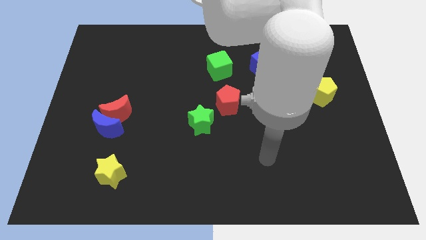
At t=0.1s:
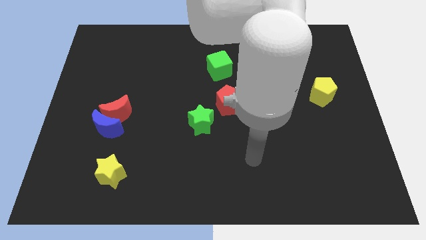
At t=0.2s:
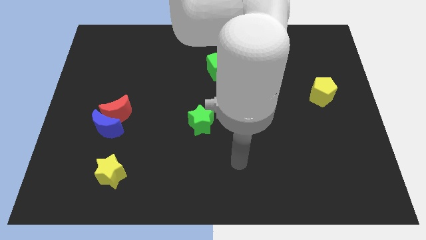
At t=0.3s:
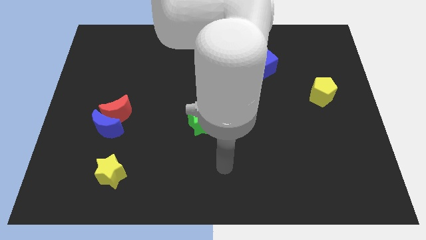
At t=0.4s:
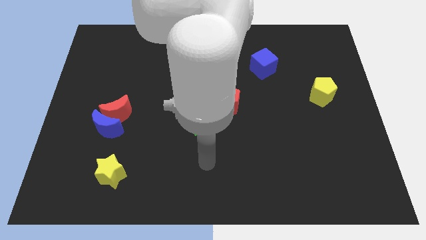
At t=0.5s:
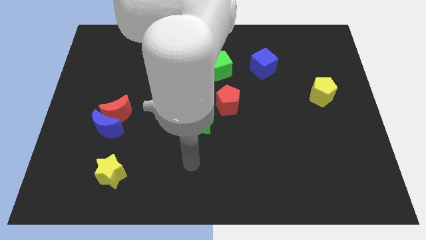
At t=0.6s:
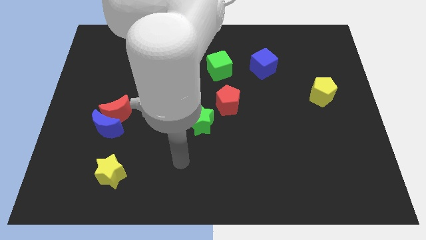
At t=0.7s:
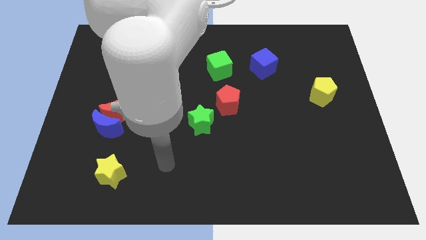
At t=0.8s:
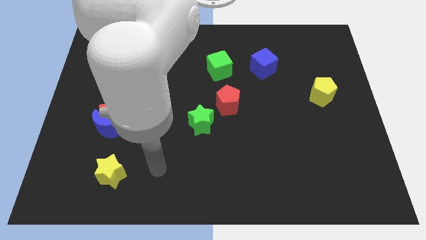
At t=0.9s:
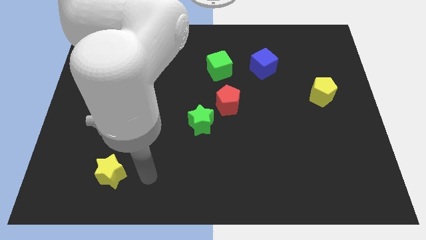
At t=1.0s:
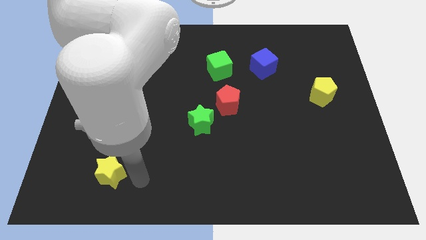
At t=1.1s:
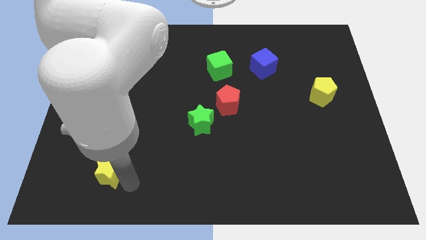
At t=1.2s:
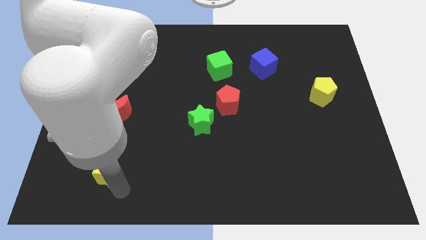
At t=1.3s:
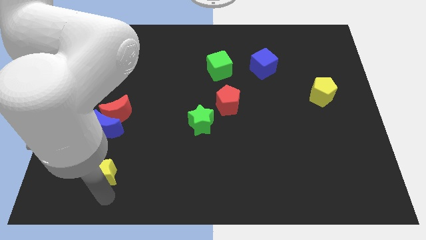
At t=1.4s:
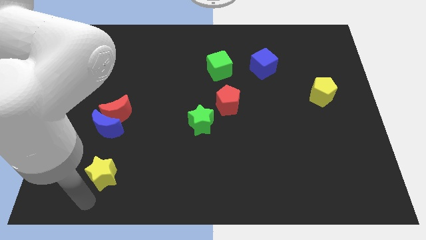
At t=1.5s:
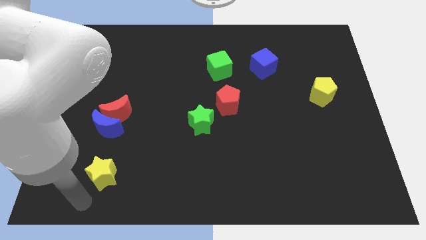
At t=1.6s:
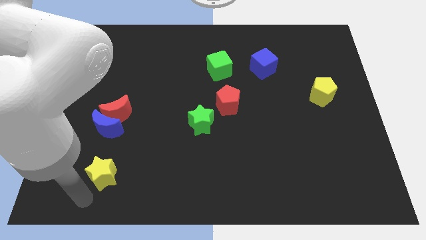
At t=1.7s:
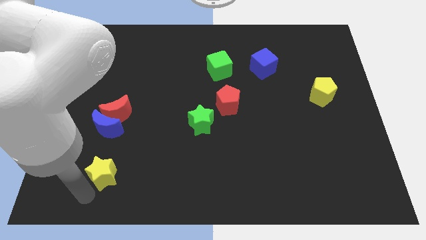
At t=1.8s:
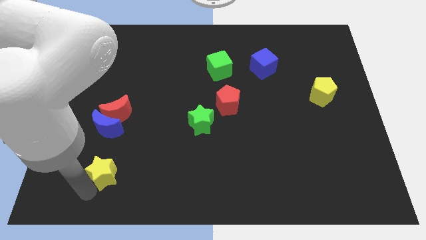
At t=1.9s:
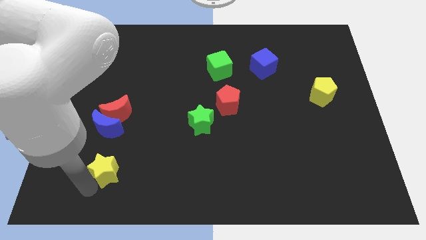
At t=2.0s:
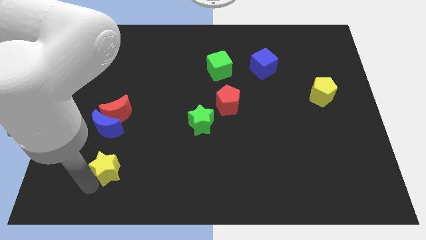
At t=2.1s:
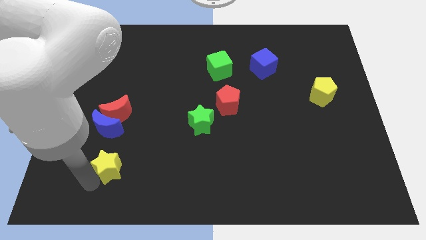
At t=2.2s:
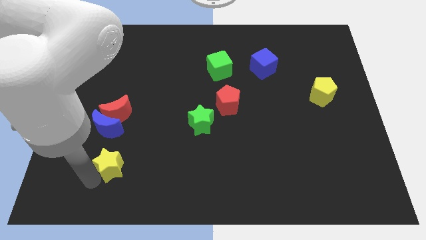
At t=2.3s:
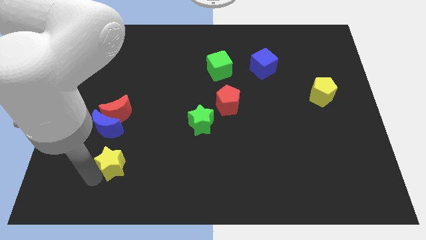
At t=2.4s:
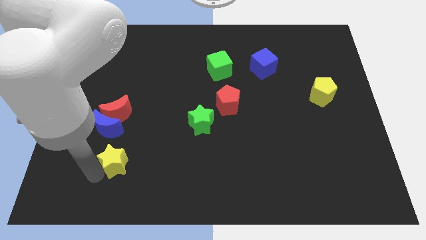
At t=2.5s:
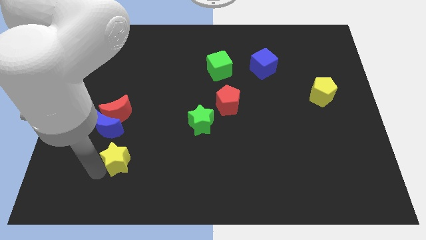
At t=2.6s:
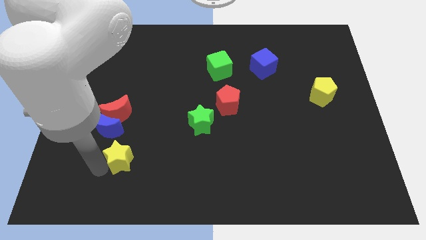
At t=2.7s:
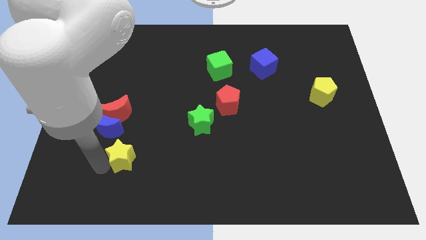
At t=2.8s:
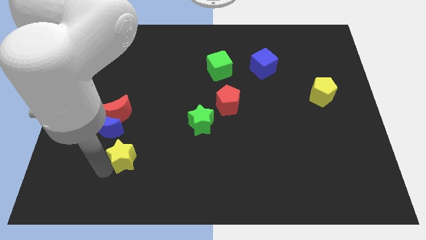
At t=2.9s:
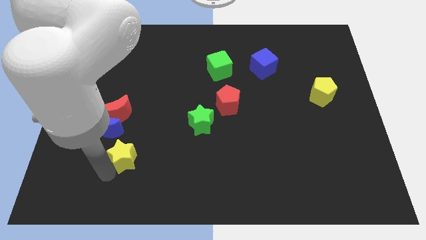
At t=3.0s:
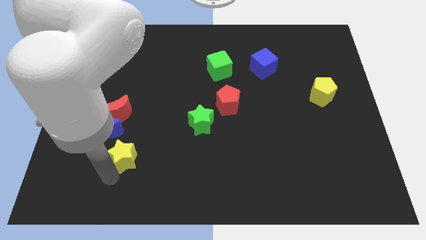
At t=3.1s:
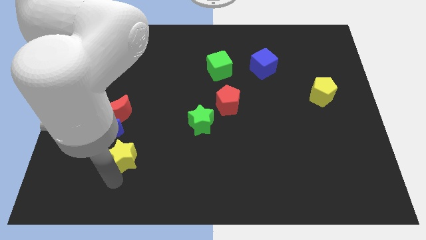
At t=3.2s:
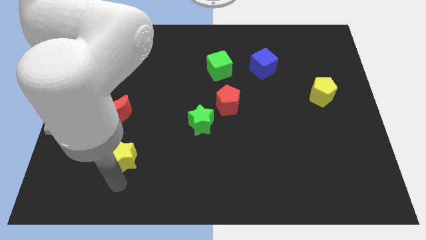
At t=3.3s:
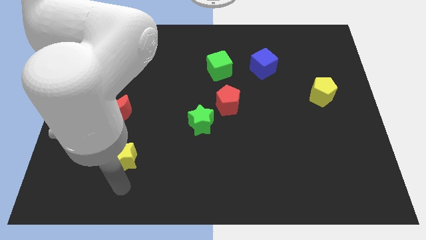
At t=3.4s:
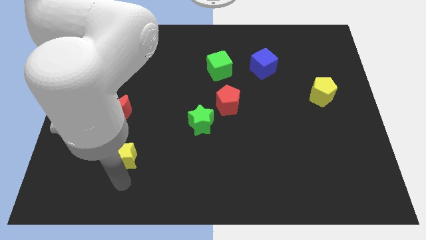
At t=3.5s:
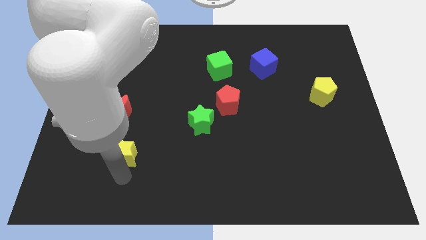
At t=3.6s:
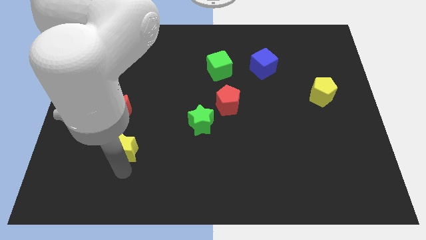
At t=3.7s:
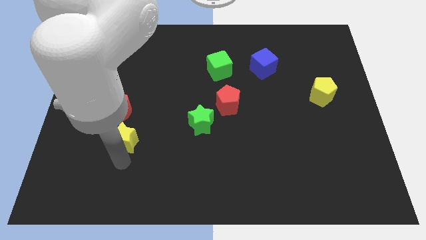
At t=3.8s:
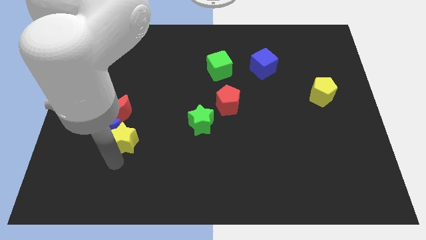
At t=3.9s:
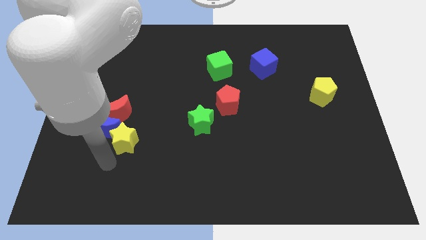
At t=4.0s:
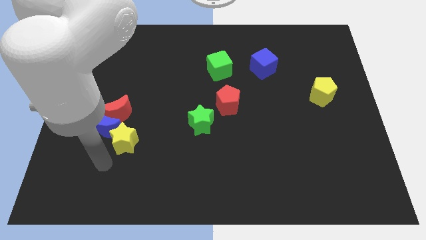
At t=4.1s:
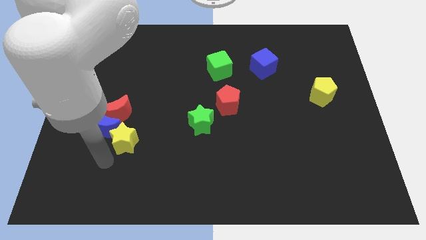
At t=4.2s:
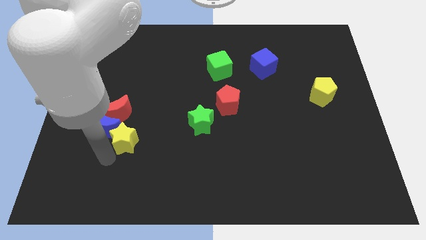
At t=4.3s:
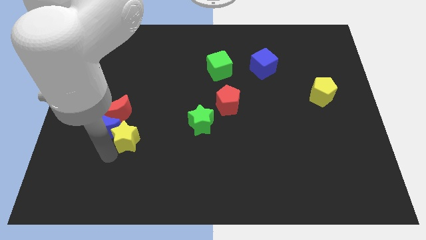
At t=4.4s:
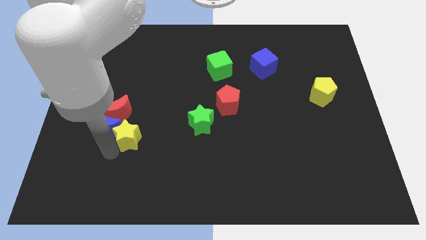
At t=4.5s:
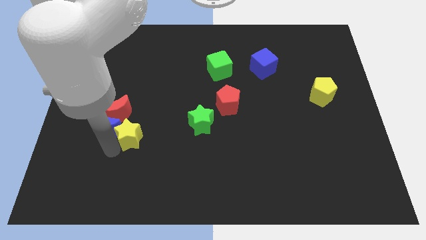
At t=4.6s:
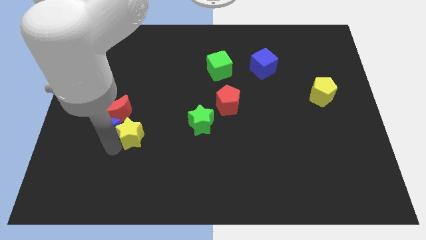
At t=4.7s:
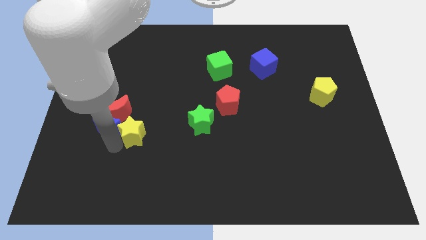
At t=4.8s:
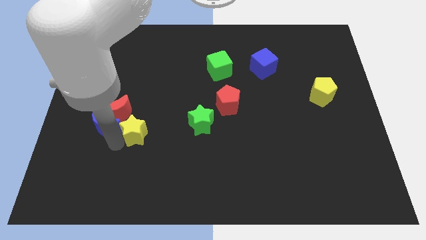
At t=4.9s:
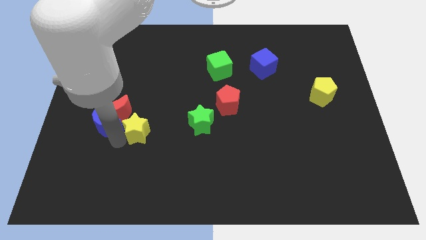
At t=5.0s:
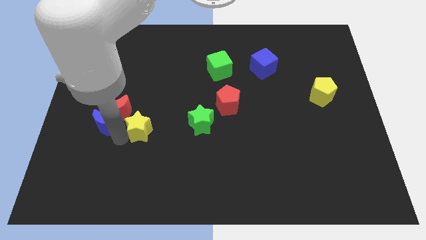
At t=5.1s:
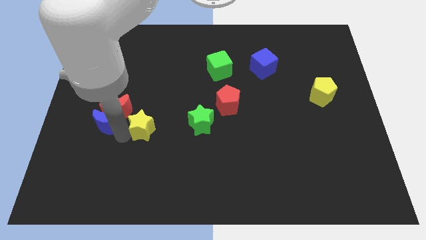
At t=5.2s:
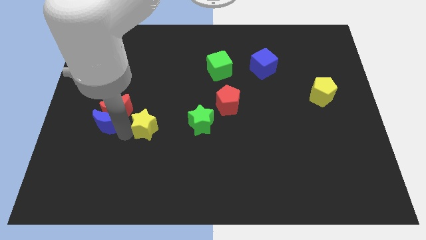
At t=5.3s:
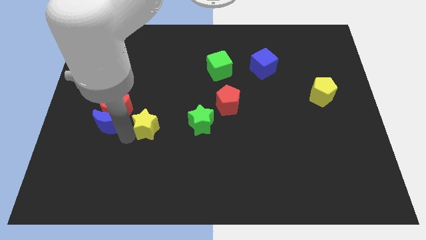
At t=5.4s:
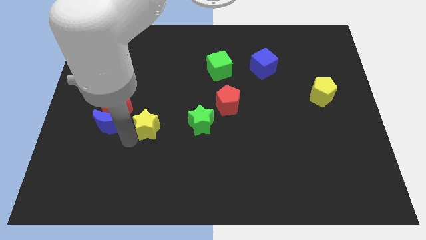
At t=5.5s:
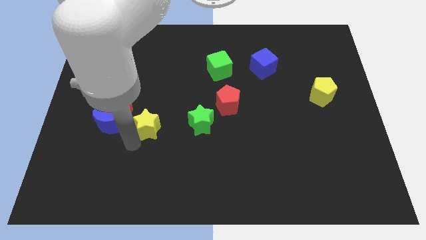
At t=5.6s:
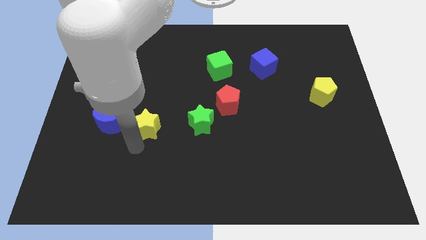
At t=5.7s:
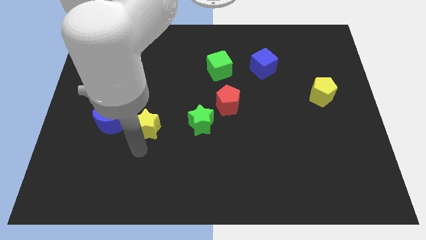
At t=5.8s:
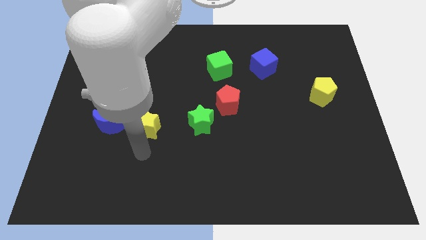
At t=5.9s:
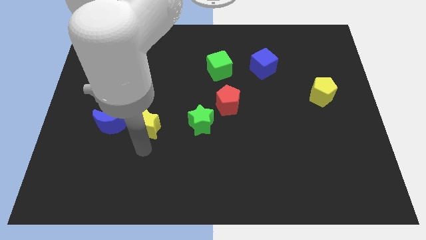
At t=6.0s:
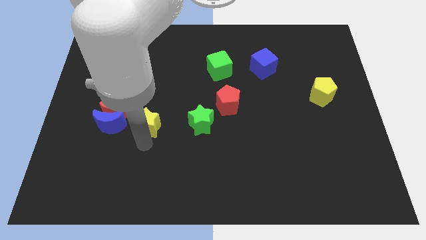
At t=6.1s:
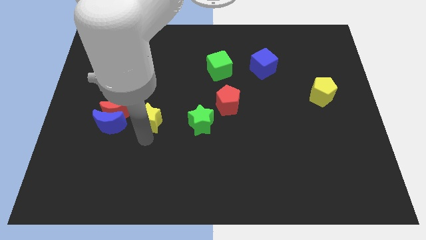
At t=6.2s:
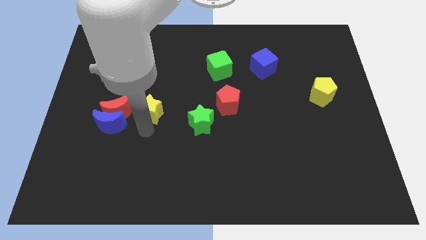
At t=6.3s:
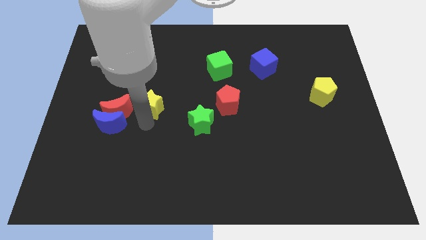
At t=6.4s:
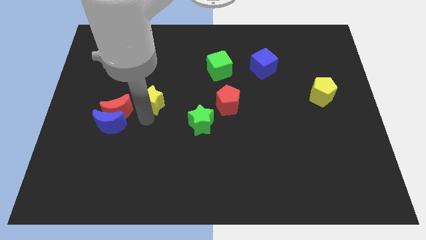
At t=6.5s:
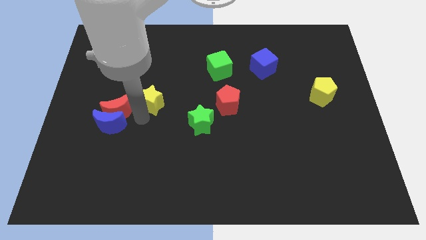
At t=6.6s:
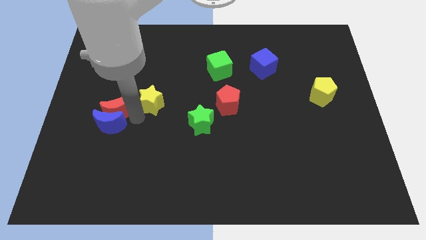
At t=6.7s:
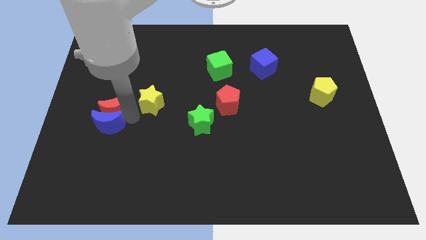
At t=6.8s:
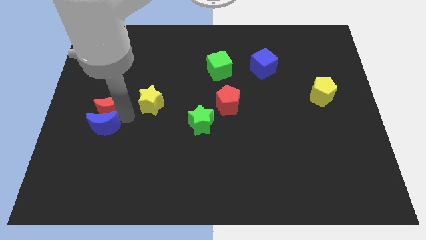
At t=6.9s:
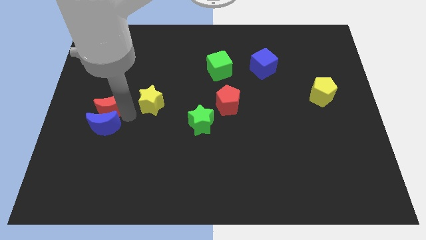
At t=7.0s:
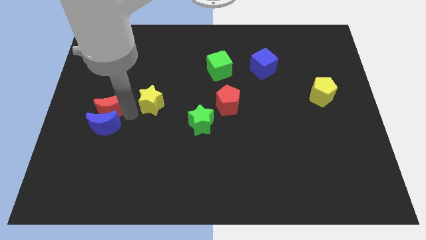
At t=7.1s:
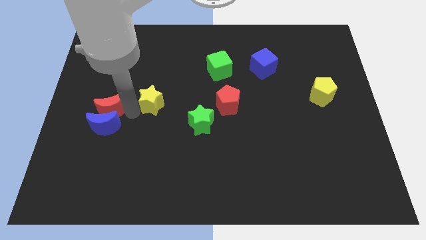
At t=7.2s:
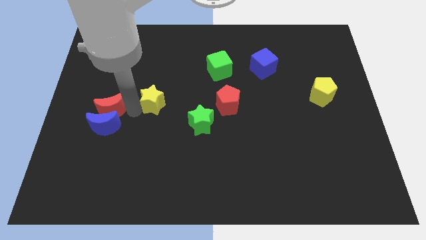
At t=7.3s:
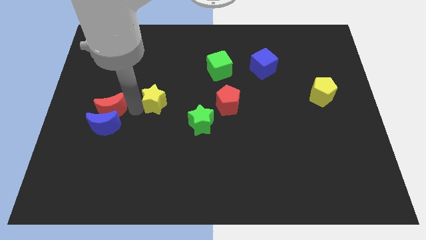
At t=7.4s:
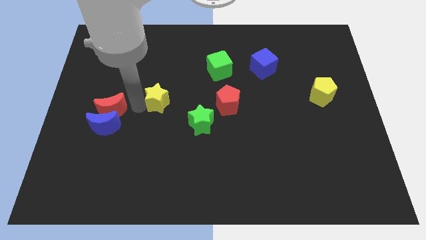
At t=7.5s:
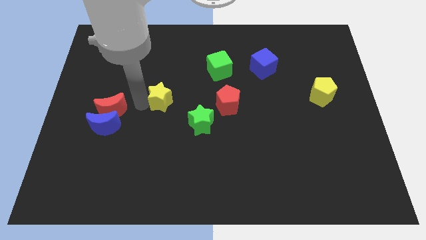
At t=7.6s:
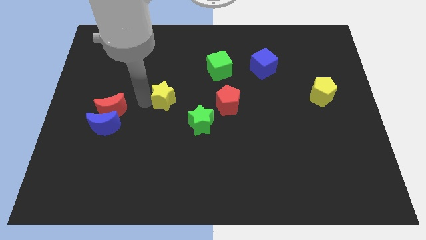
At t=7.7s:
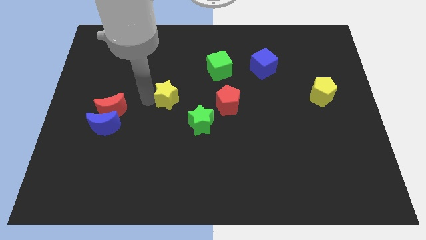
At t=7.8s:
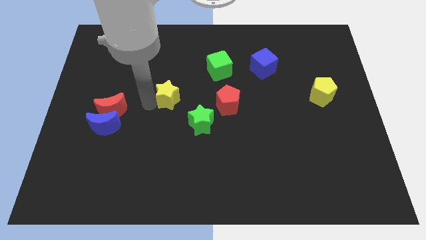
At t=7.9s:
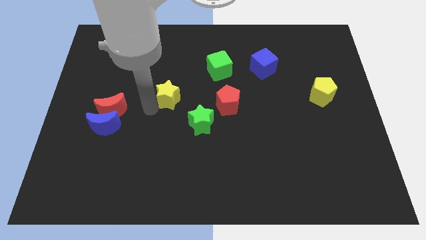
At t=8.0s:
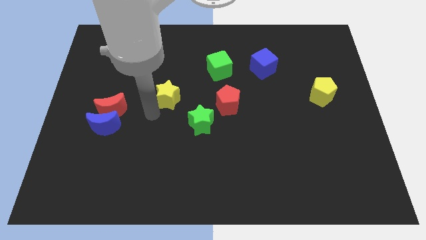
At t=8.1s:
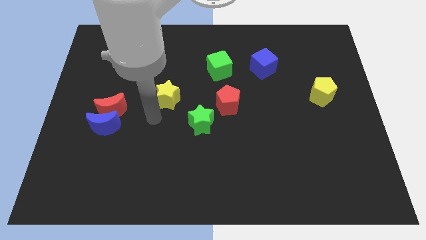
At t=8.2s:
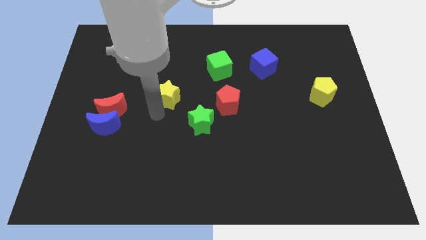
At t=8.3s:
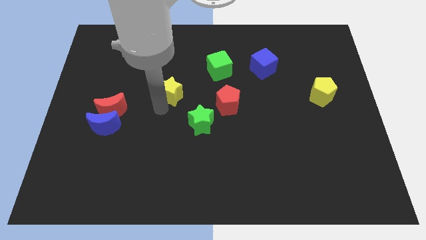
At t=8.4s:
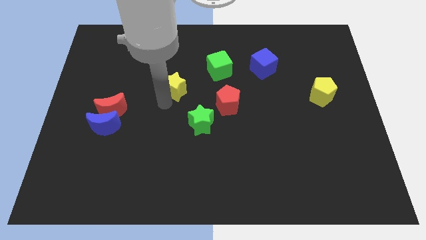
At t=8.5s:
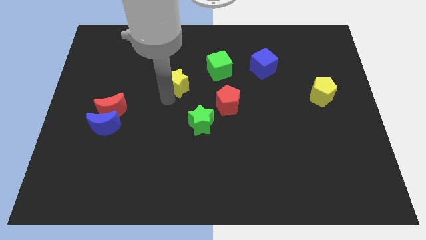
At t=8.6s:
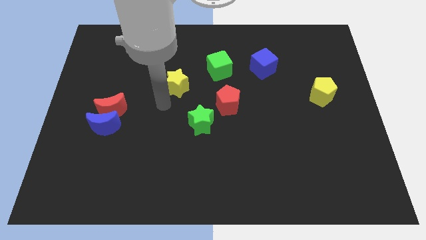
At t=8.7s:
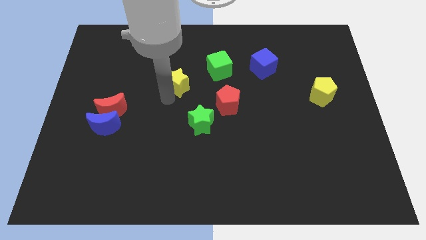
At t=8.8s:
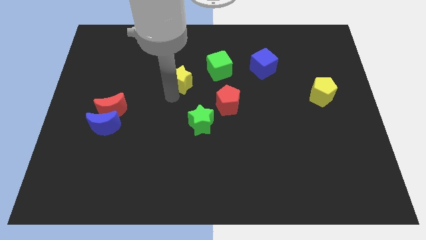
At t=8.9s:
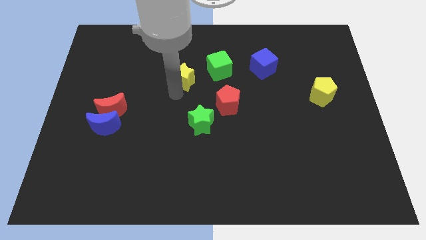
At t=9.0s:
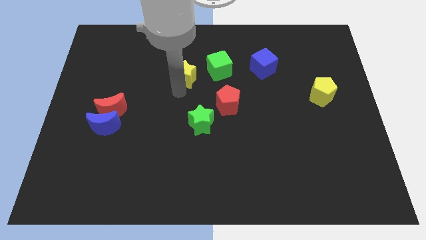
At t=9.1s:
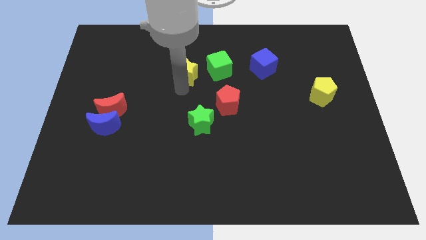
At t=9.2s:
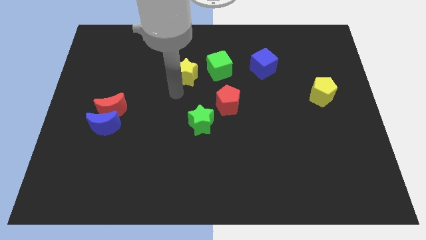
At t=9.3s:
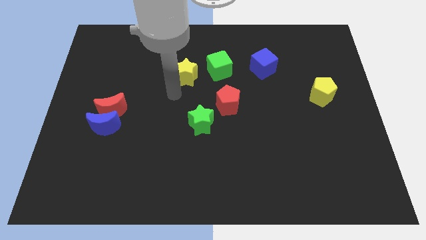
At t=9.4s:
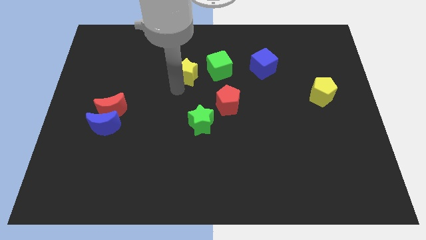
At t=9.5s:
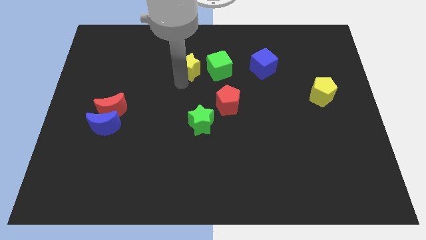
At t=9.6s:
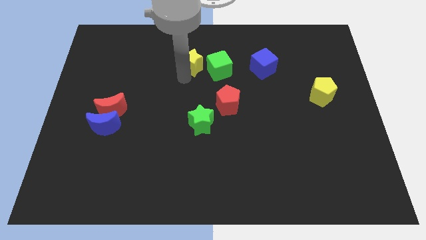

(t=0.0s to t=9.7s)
push the yellow star to the top left side of the green cube
